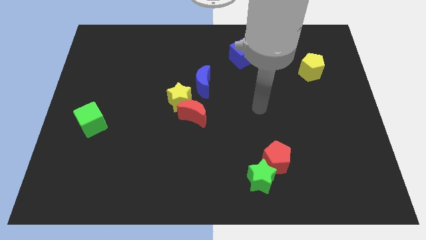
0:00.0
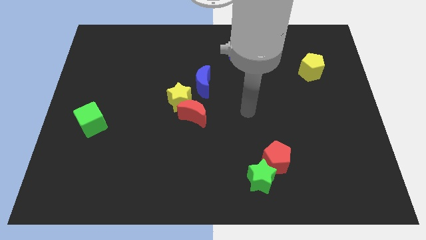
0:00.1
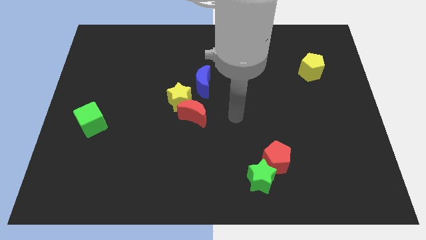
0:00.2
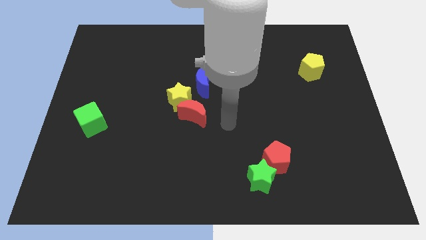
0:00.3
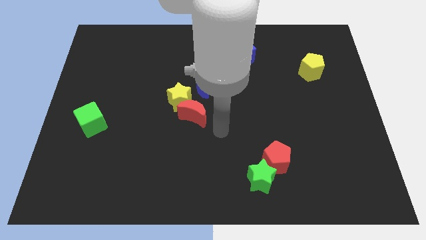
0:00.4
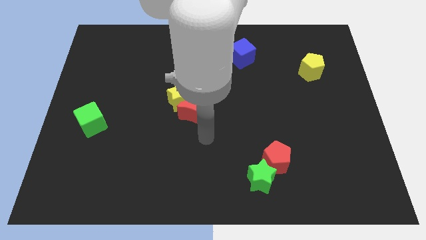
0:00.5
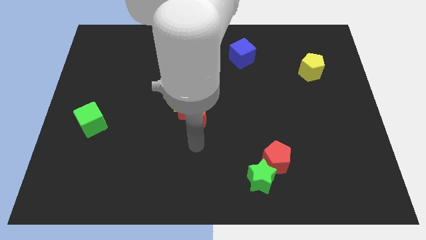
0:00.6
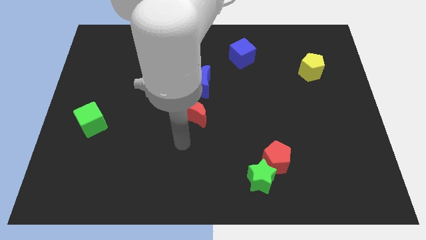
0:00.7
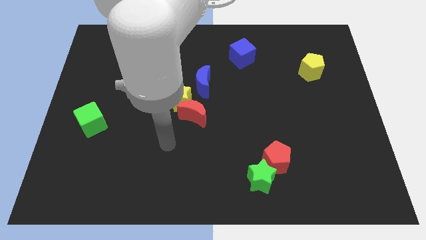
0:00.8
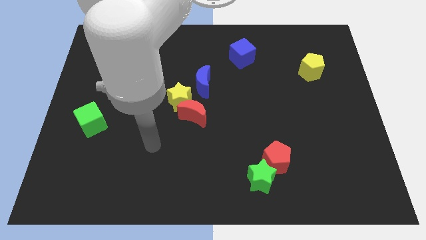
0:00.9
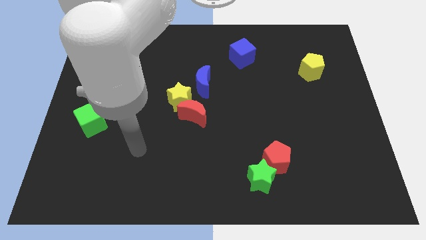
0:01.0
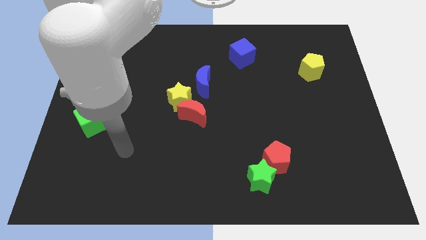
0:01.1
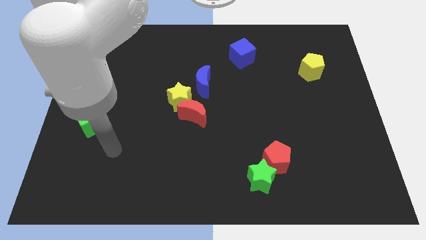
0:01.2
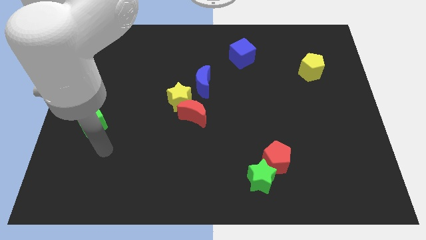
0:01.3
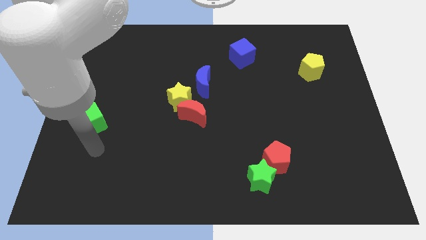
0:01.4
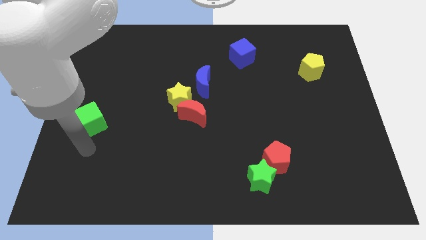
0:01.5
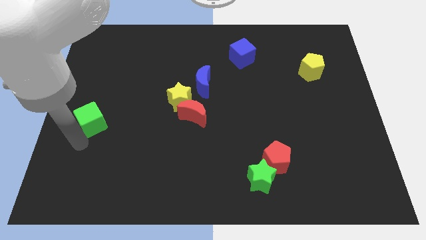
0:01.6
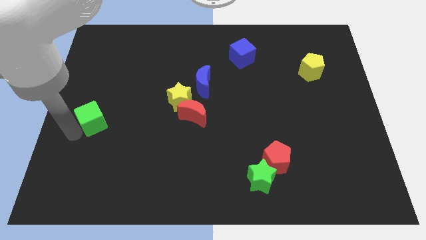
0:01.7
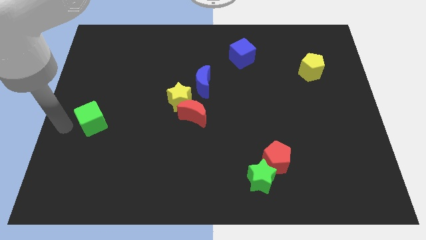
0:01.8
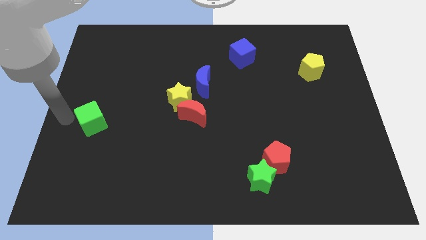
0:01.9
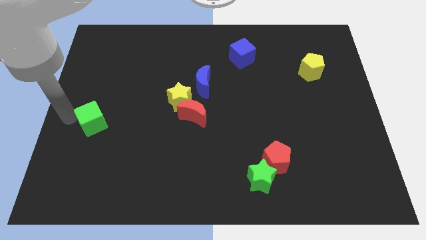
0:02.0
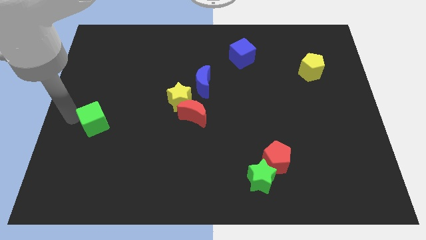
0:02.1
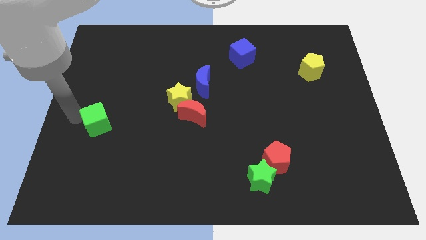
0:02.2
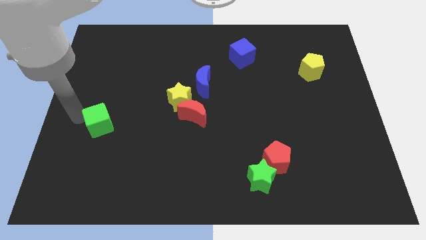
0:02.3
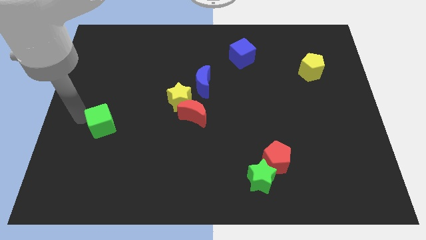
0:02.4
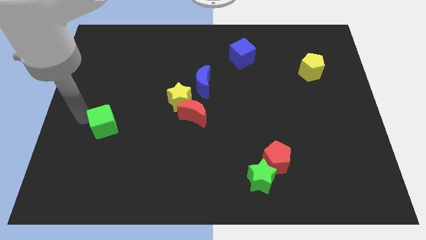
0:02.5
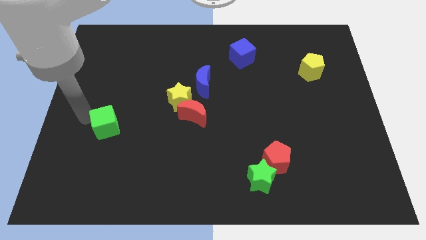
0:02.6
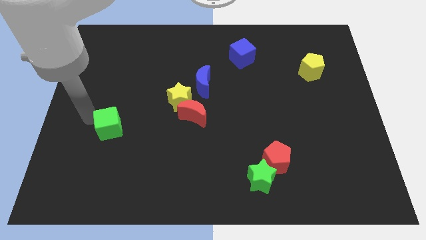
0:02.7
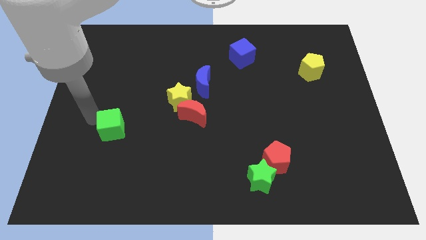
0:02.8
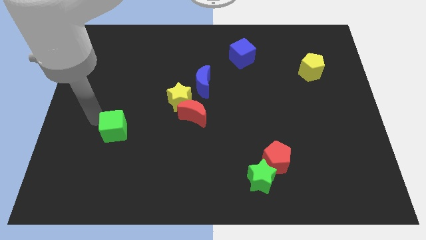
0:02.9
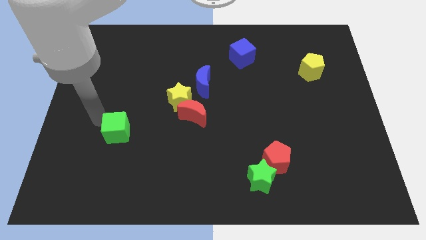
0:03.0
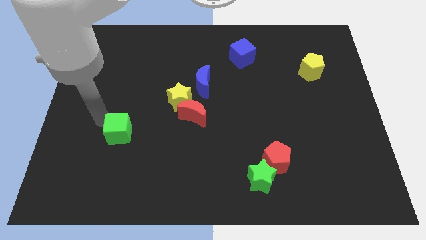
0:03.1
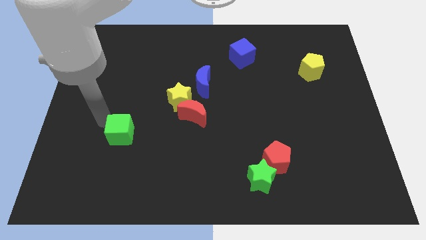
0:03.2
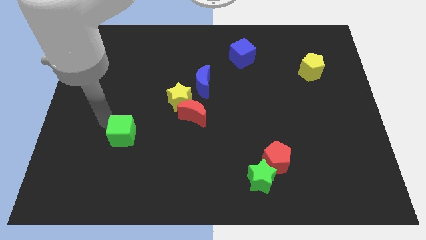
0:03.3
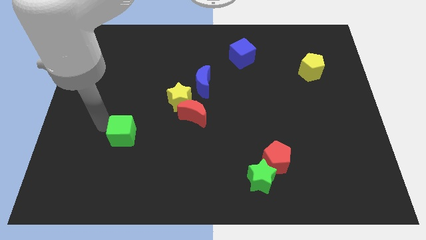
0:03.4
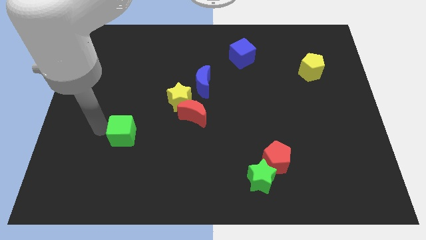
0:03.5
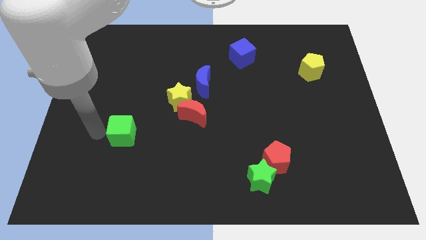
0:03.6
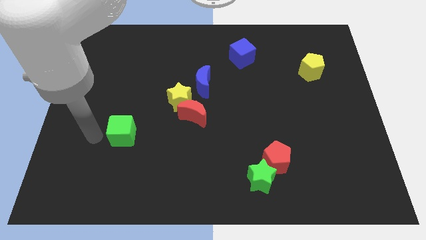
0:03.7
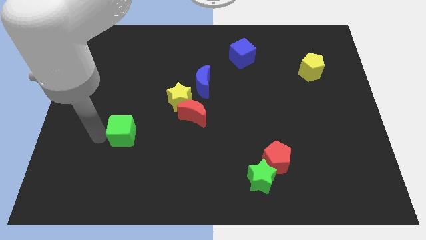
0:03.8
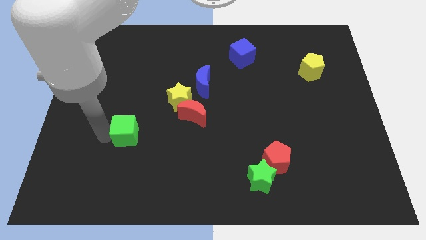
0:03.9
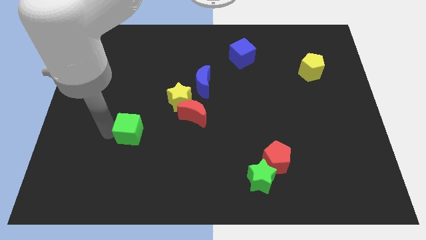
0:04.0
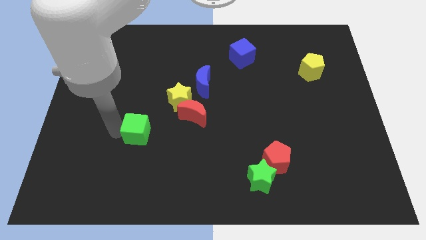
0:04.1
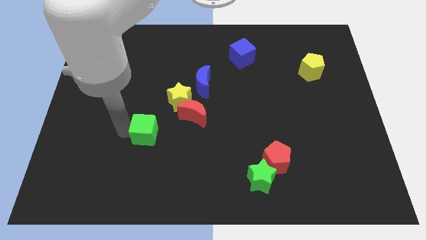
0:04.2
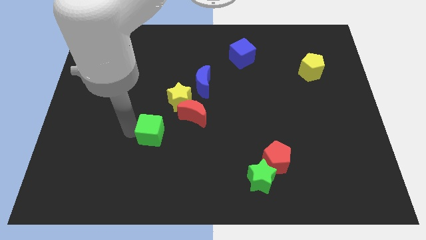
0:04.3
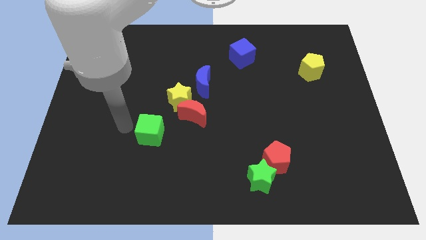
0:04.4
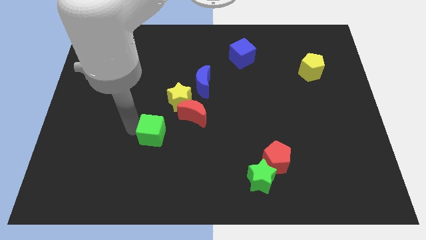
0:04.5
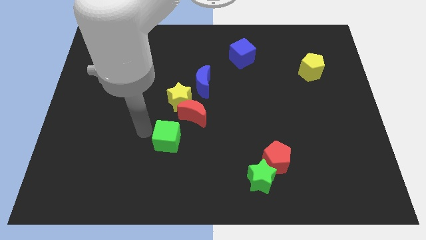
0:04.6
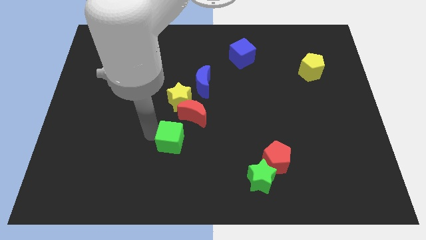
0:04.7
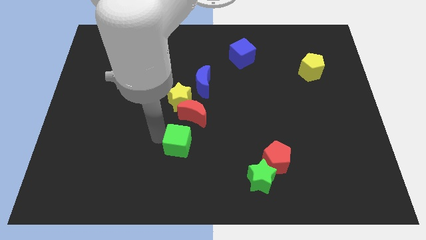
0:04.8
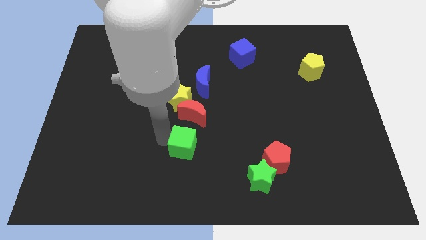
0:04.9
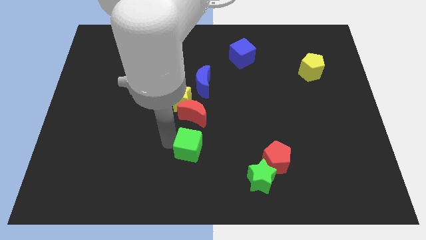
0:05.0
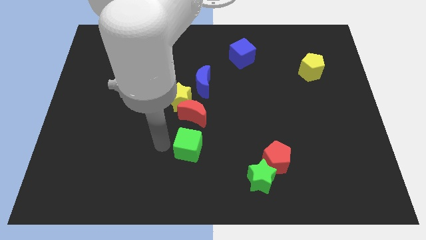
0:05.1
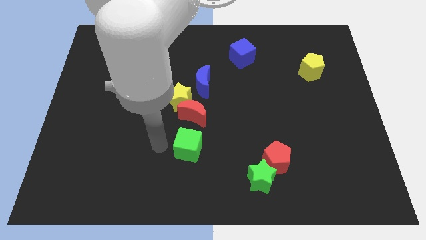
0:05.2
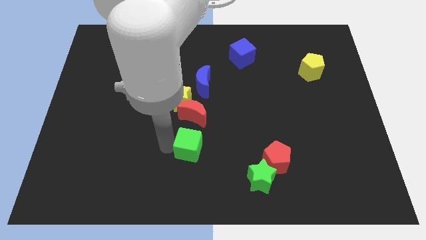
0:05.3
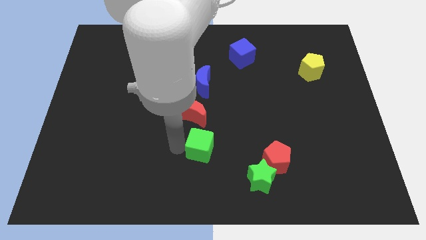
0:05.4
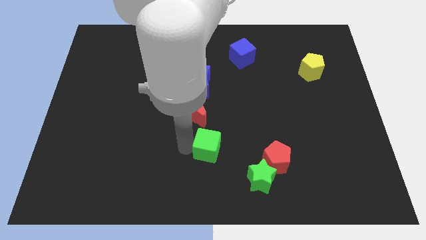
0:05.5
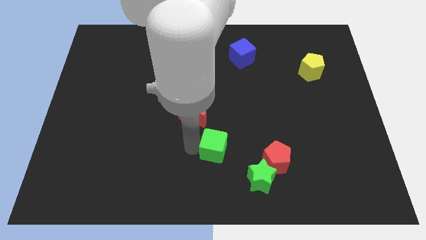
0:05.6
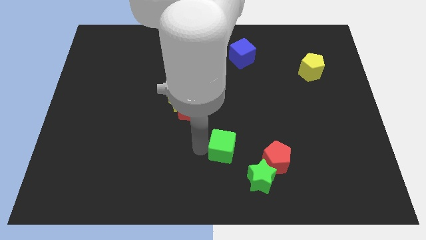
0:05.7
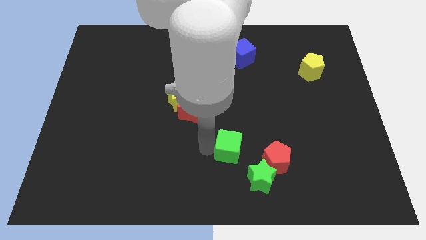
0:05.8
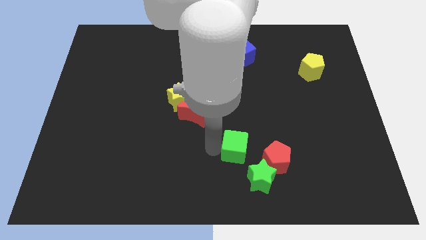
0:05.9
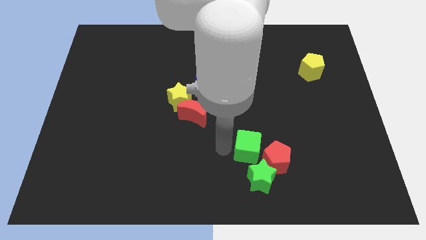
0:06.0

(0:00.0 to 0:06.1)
put the green cube next to the red pentagon
